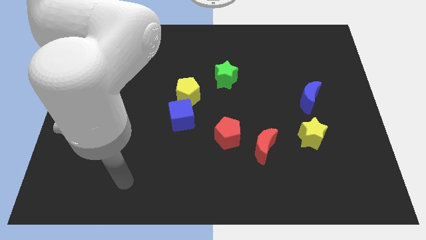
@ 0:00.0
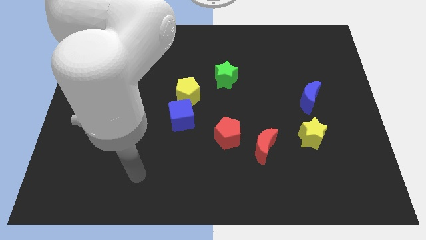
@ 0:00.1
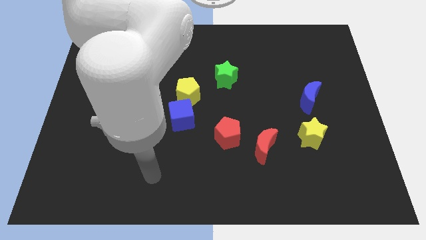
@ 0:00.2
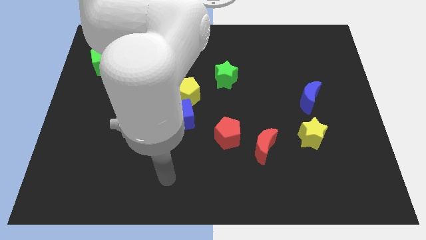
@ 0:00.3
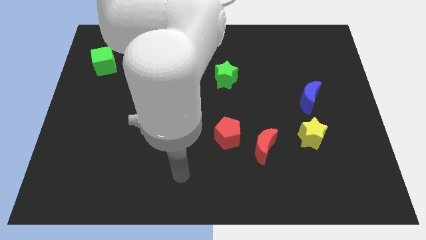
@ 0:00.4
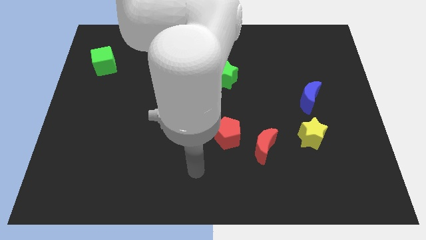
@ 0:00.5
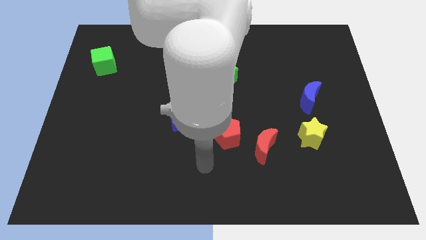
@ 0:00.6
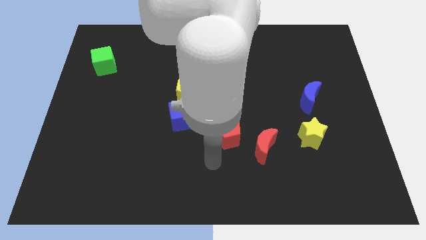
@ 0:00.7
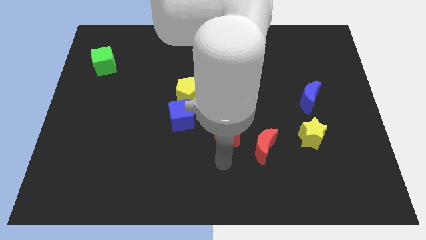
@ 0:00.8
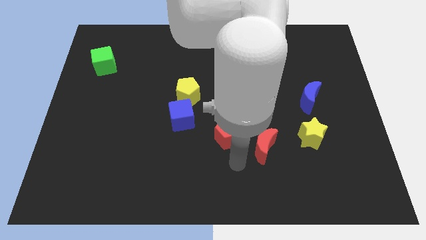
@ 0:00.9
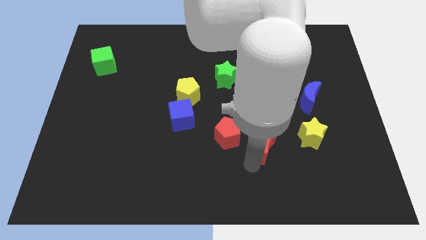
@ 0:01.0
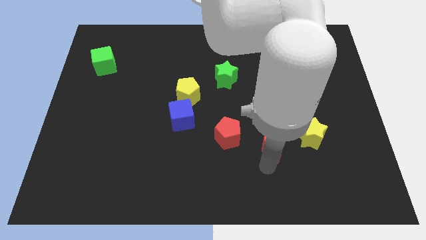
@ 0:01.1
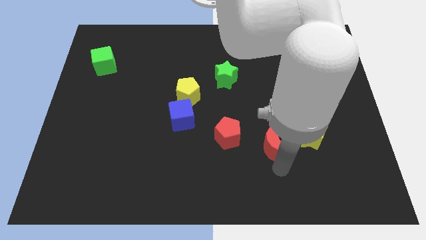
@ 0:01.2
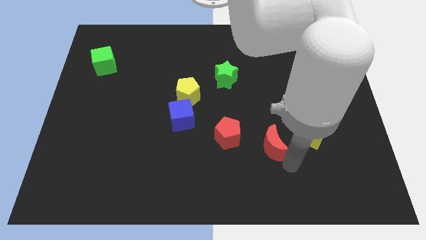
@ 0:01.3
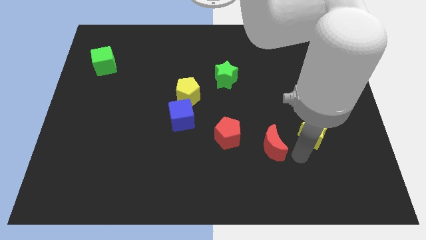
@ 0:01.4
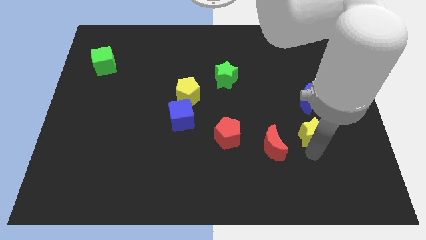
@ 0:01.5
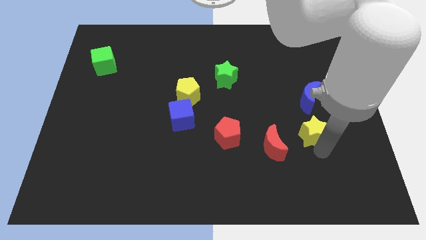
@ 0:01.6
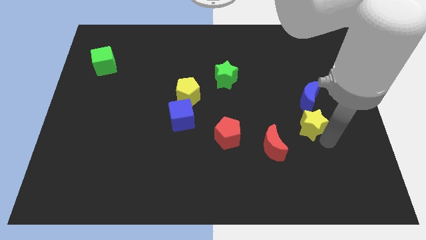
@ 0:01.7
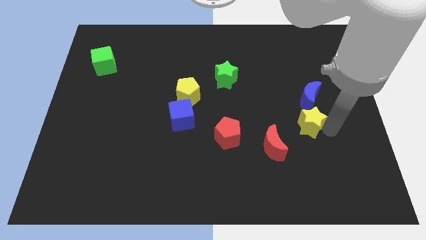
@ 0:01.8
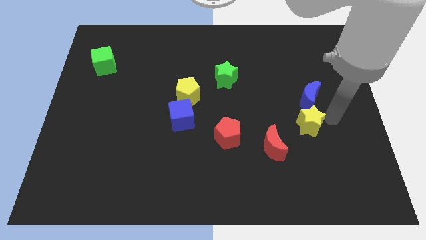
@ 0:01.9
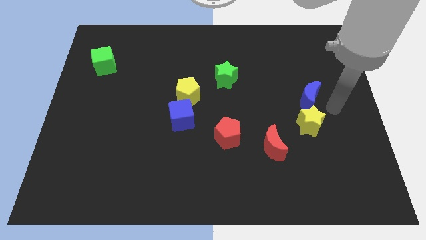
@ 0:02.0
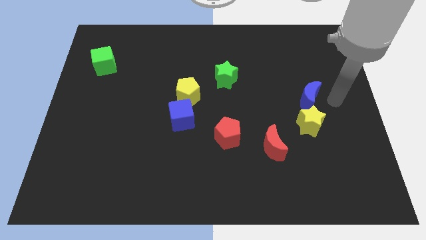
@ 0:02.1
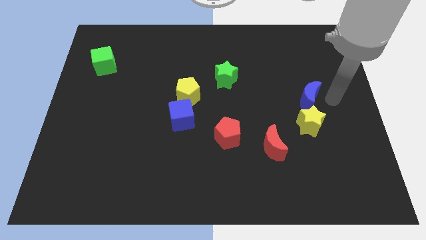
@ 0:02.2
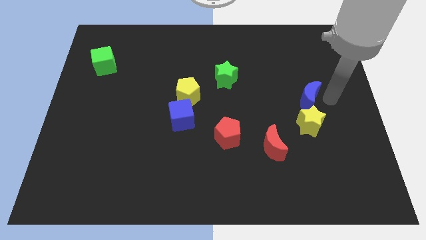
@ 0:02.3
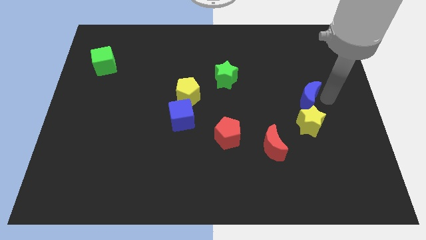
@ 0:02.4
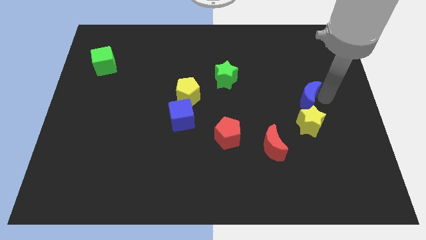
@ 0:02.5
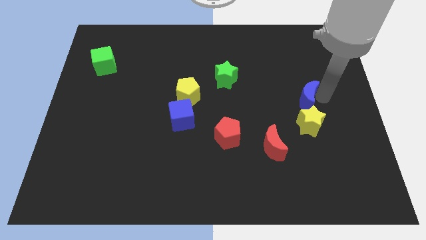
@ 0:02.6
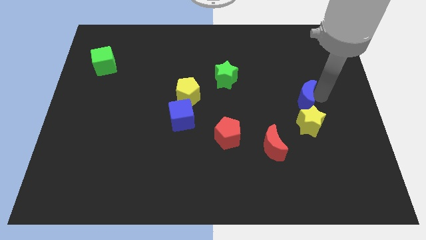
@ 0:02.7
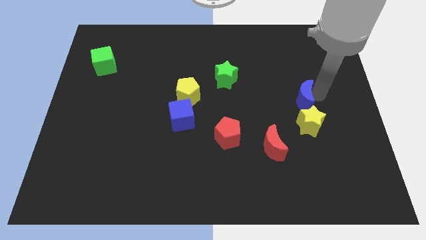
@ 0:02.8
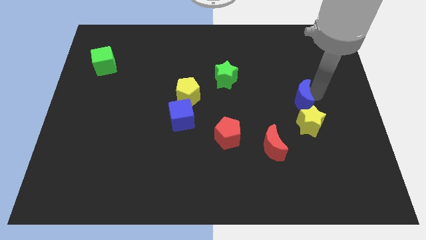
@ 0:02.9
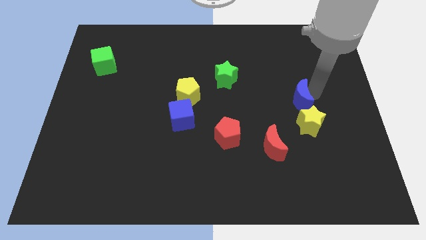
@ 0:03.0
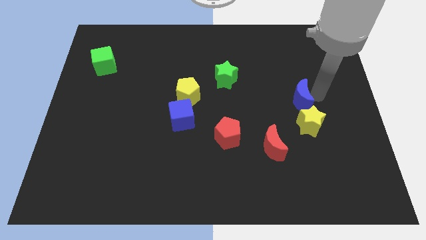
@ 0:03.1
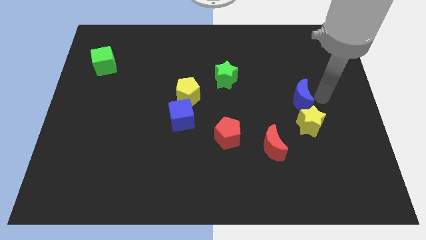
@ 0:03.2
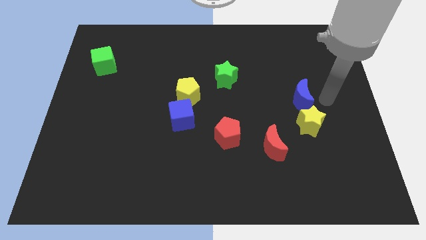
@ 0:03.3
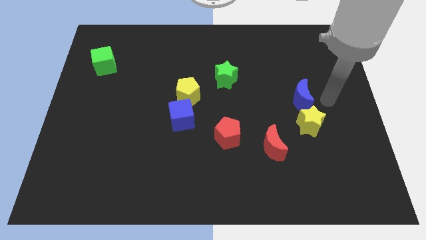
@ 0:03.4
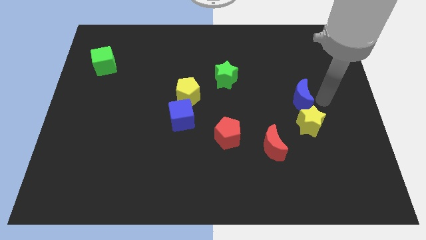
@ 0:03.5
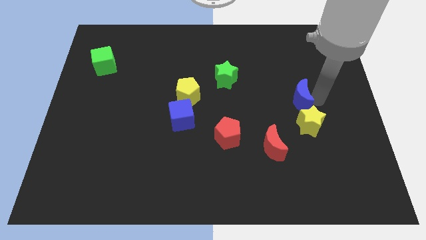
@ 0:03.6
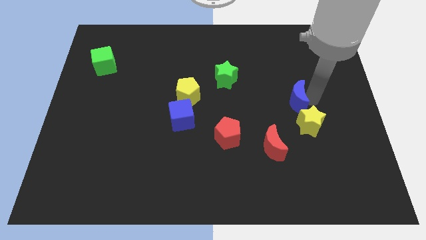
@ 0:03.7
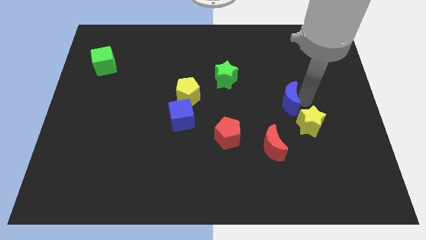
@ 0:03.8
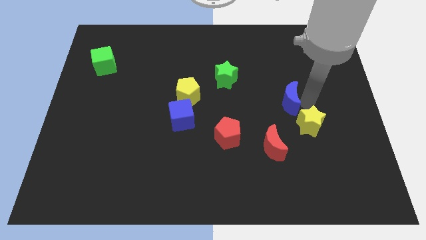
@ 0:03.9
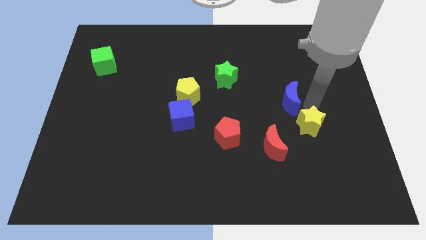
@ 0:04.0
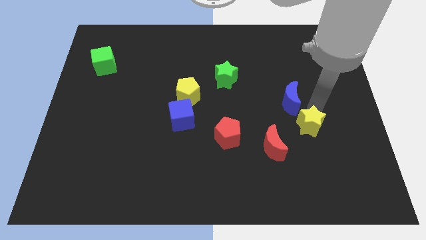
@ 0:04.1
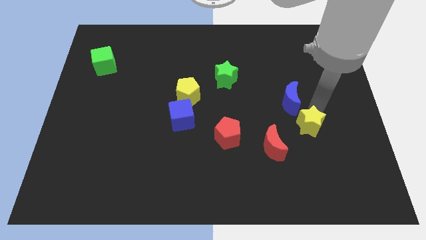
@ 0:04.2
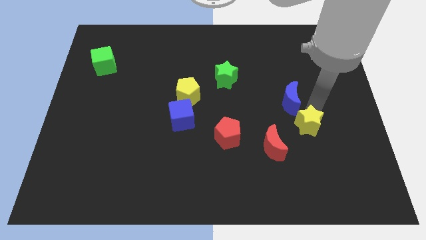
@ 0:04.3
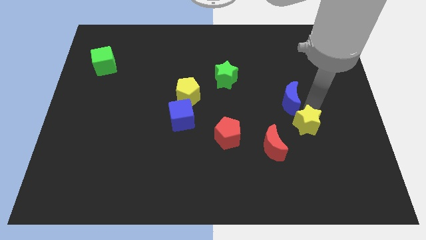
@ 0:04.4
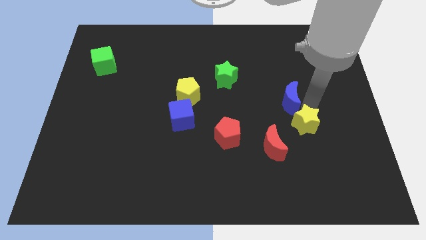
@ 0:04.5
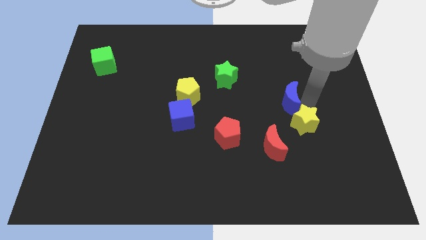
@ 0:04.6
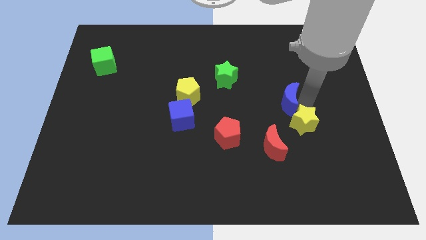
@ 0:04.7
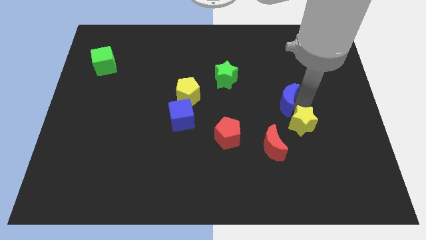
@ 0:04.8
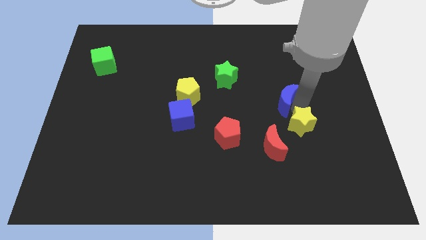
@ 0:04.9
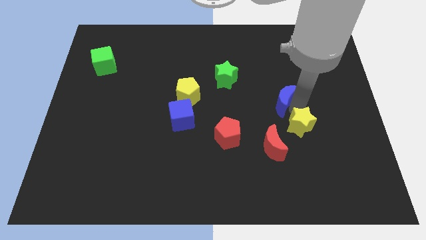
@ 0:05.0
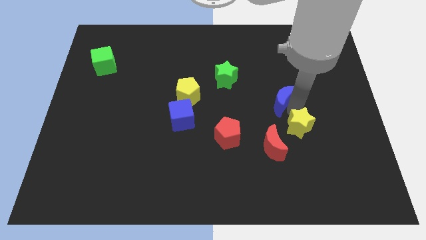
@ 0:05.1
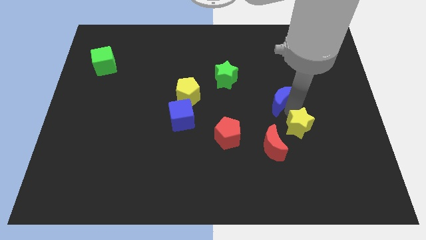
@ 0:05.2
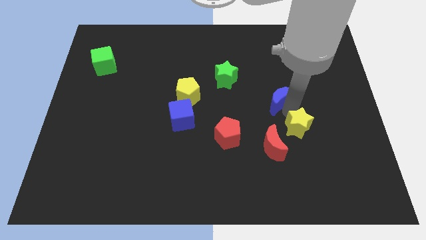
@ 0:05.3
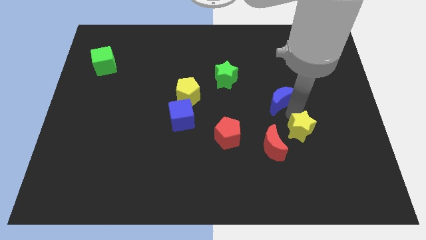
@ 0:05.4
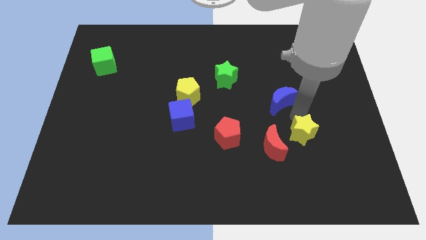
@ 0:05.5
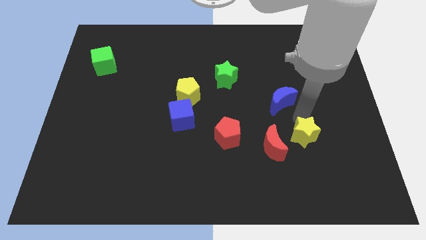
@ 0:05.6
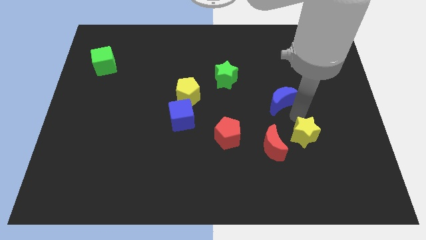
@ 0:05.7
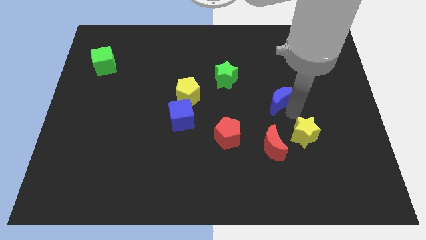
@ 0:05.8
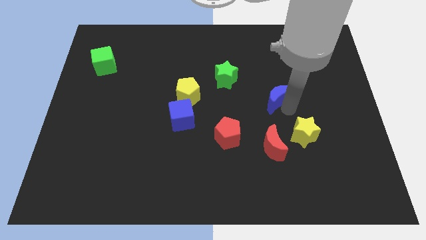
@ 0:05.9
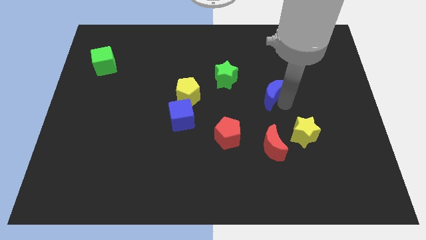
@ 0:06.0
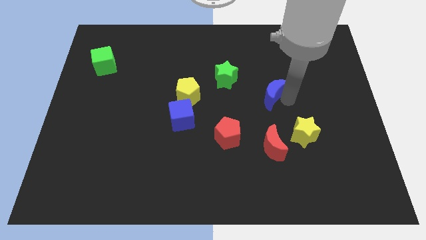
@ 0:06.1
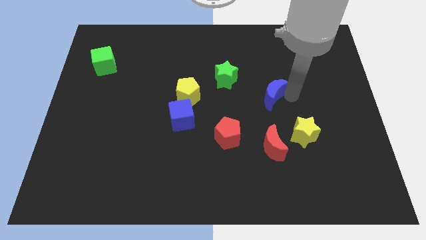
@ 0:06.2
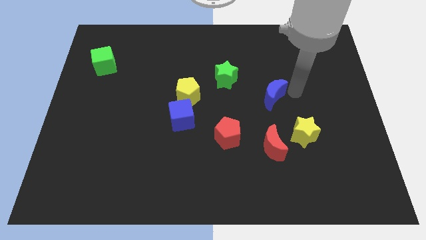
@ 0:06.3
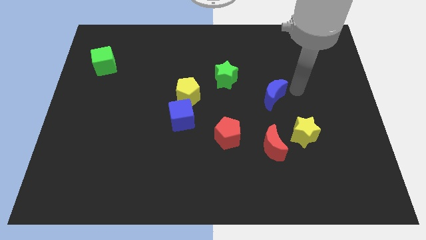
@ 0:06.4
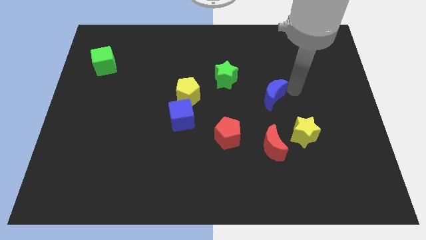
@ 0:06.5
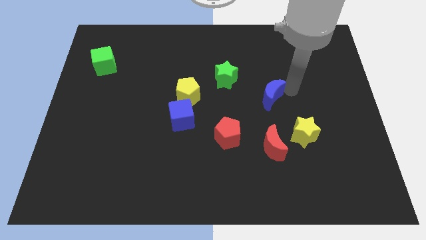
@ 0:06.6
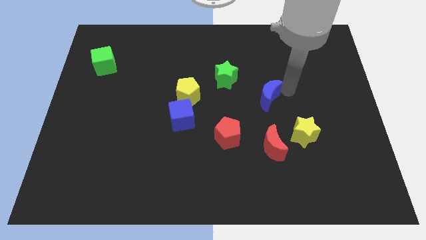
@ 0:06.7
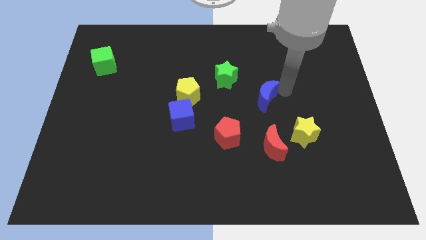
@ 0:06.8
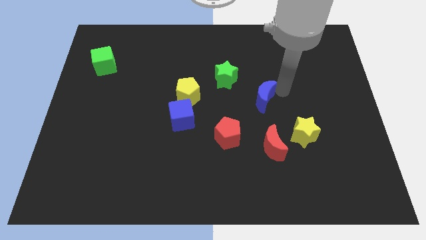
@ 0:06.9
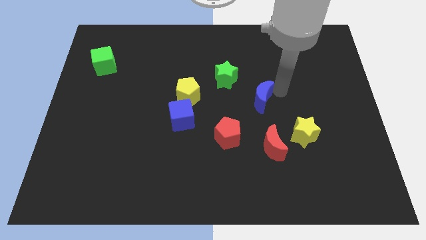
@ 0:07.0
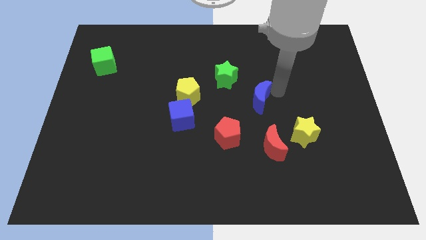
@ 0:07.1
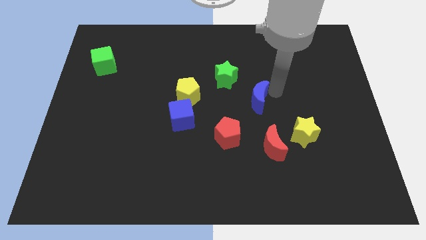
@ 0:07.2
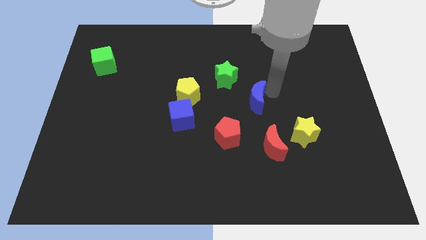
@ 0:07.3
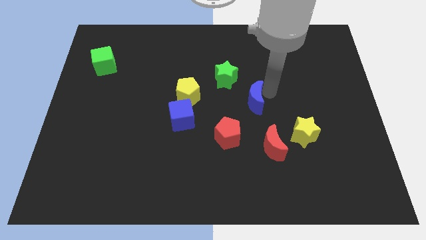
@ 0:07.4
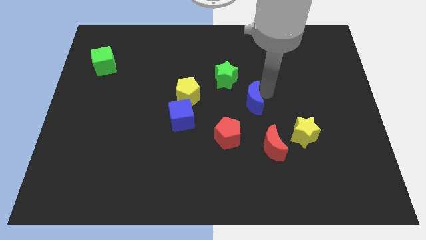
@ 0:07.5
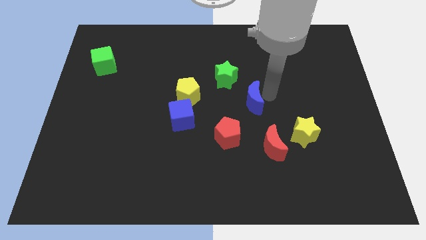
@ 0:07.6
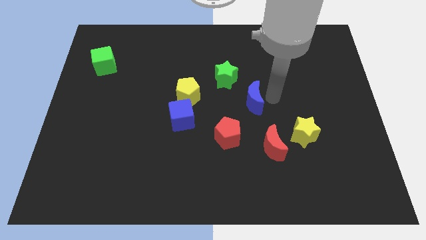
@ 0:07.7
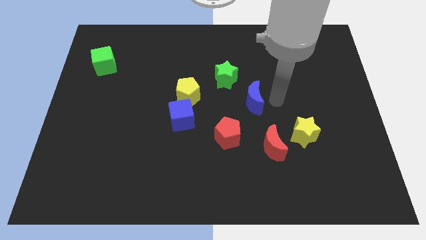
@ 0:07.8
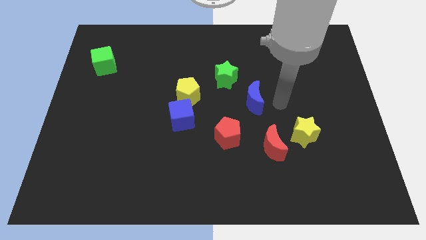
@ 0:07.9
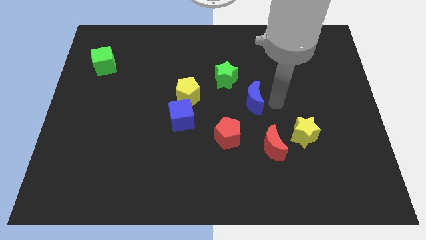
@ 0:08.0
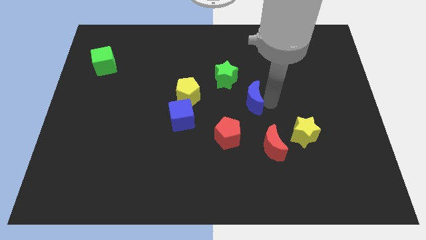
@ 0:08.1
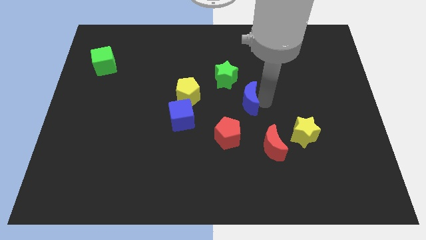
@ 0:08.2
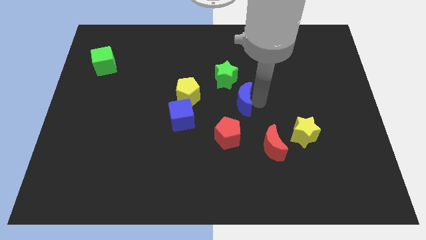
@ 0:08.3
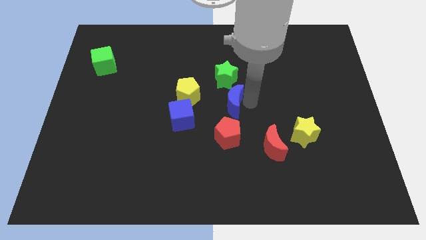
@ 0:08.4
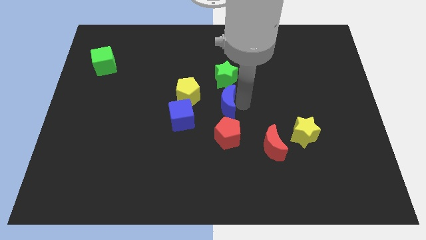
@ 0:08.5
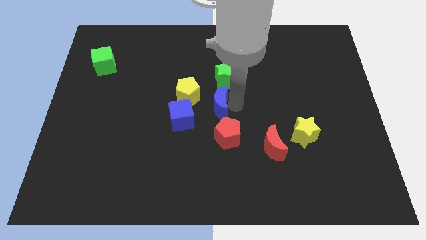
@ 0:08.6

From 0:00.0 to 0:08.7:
slide the blue moon to the bottom left of the green star
